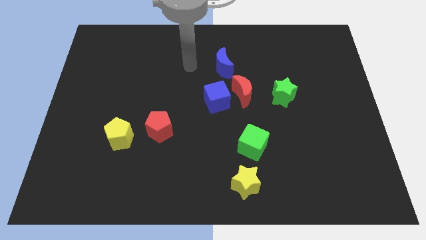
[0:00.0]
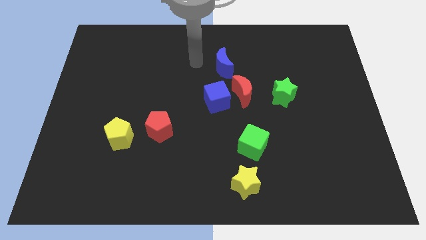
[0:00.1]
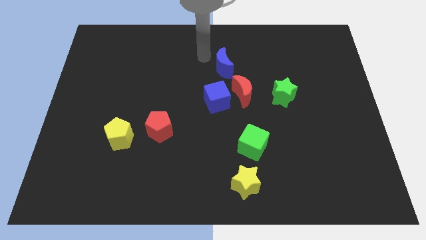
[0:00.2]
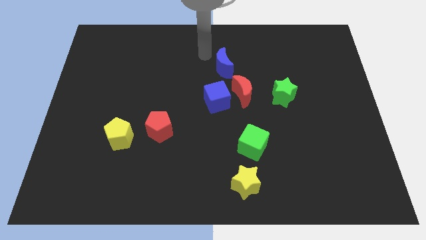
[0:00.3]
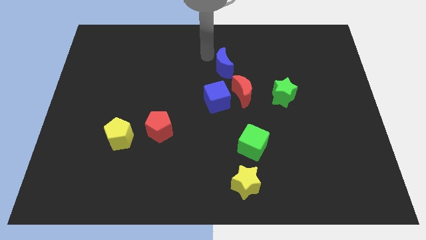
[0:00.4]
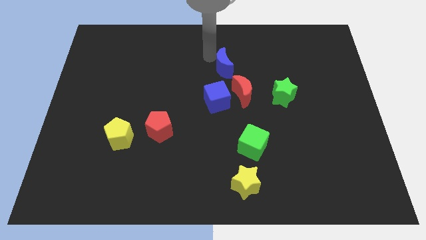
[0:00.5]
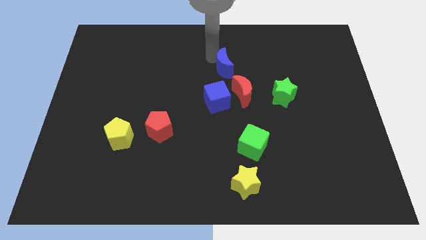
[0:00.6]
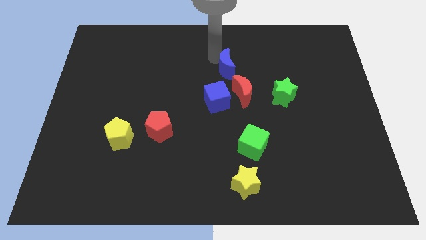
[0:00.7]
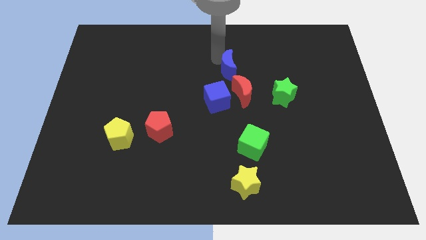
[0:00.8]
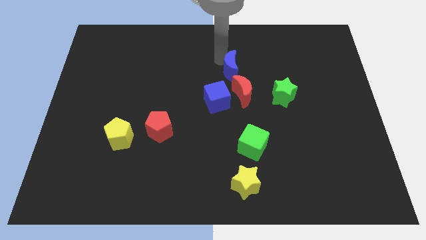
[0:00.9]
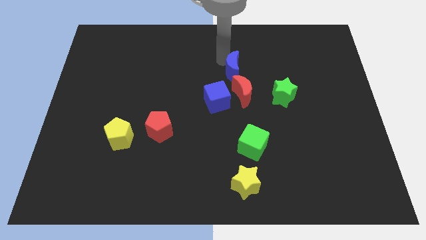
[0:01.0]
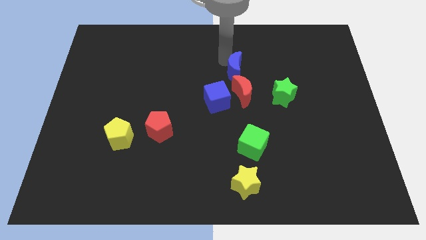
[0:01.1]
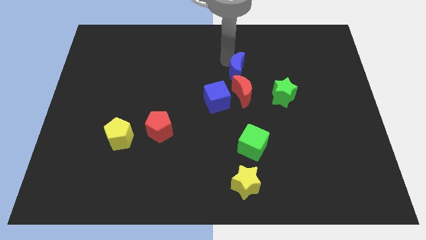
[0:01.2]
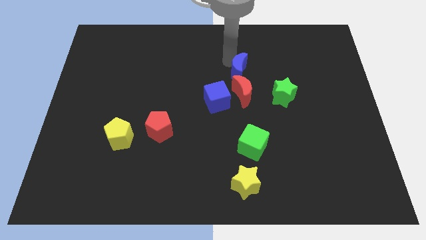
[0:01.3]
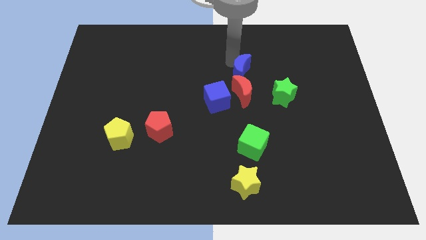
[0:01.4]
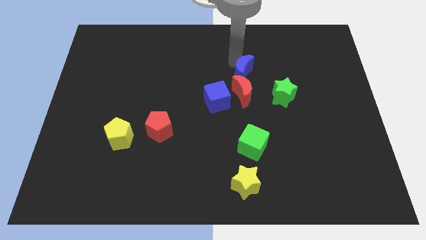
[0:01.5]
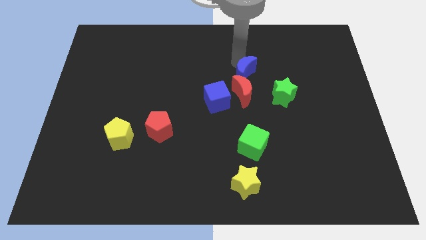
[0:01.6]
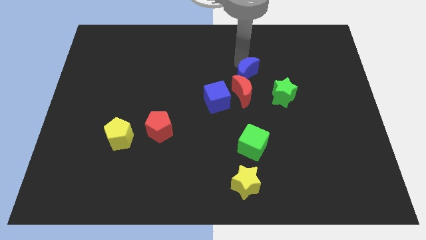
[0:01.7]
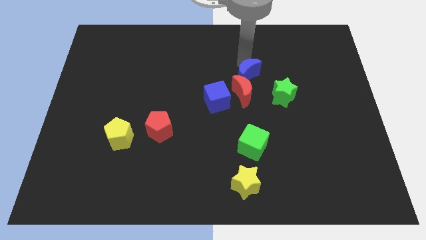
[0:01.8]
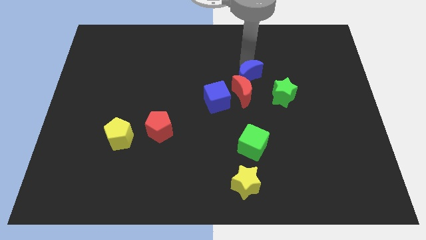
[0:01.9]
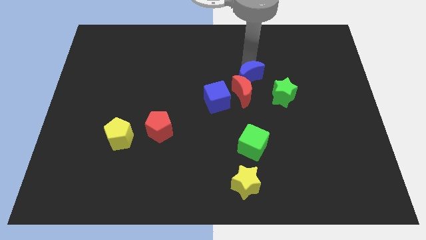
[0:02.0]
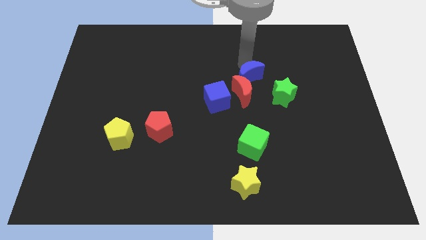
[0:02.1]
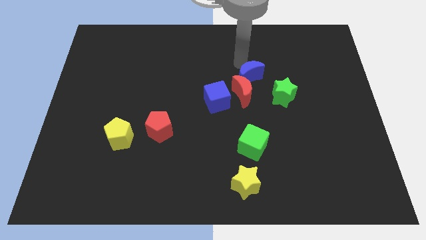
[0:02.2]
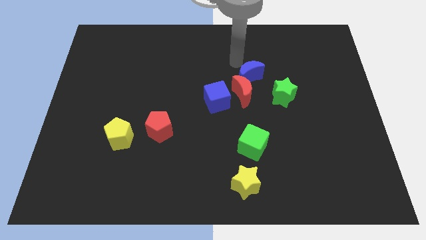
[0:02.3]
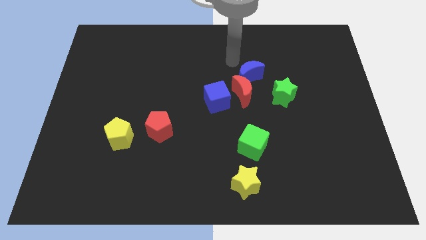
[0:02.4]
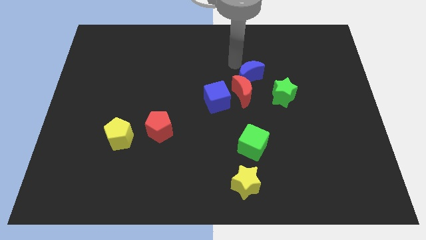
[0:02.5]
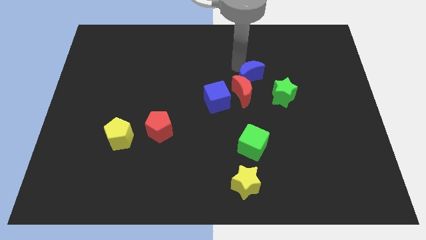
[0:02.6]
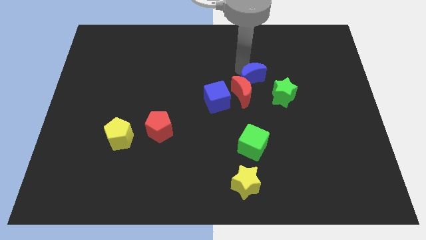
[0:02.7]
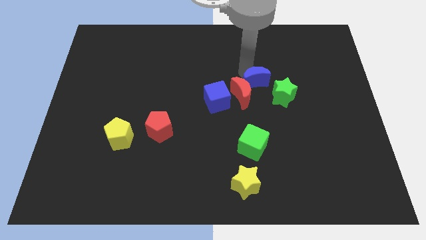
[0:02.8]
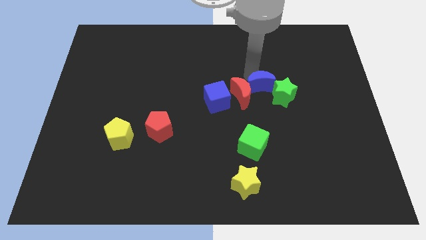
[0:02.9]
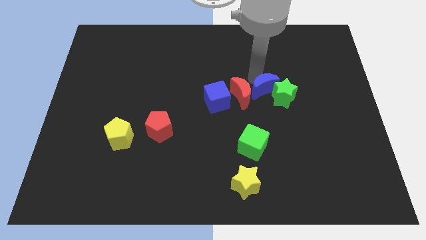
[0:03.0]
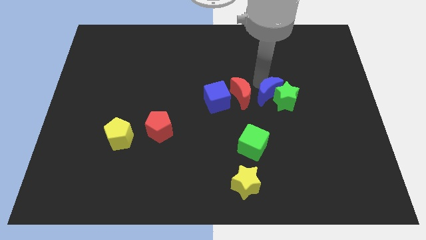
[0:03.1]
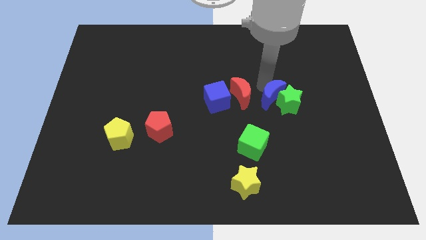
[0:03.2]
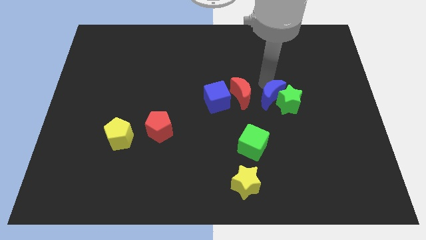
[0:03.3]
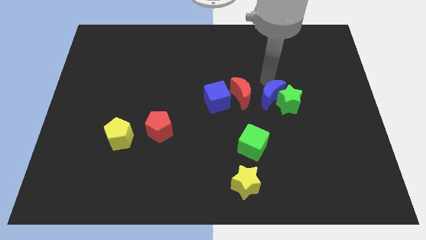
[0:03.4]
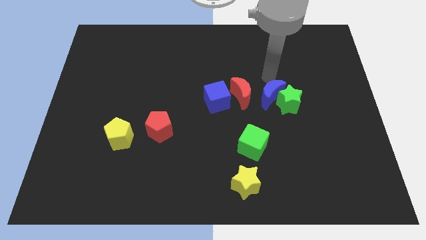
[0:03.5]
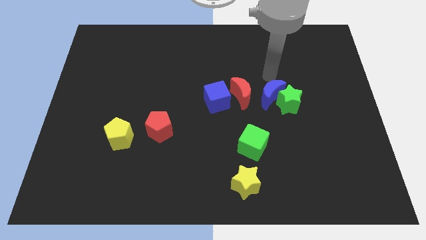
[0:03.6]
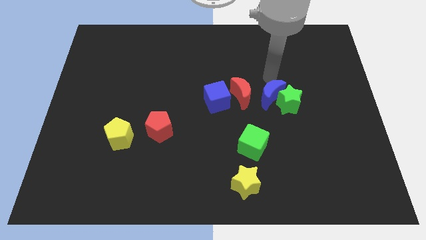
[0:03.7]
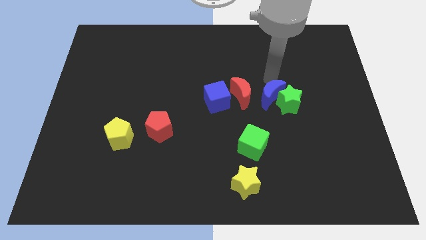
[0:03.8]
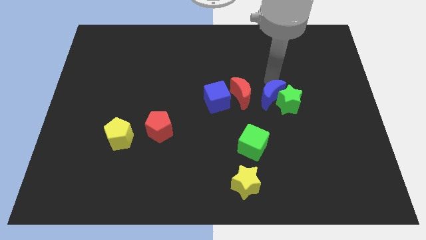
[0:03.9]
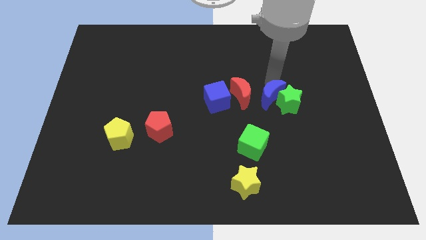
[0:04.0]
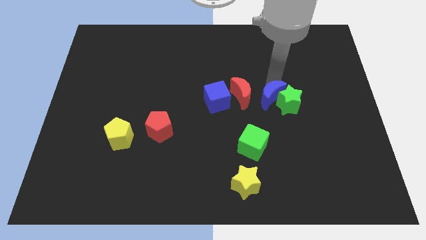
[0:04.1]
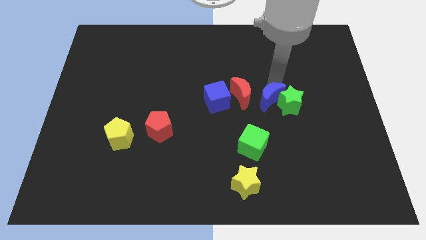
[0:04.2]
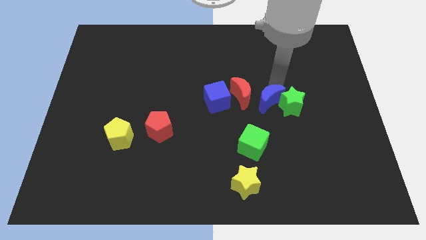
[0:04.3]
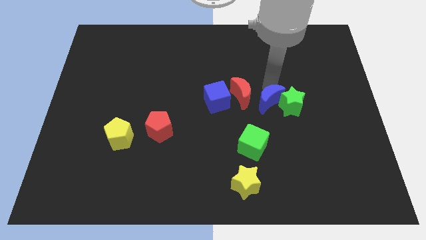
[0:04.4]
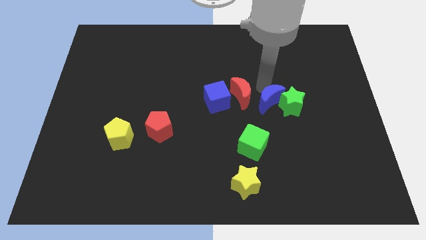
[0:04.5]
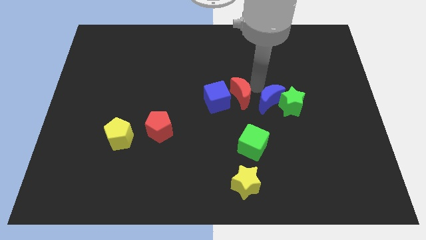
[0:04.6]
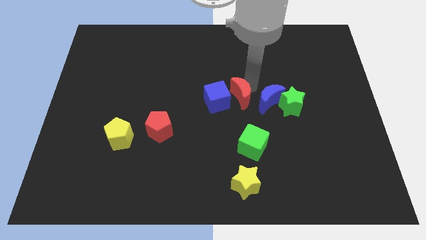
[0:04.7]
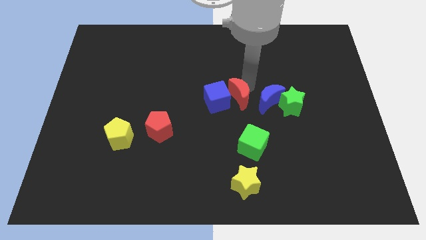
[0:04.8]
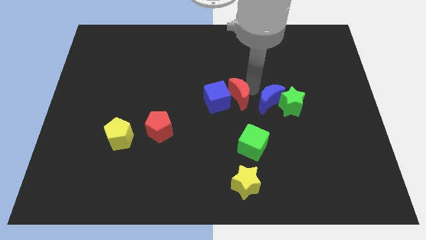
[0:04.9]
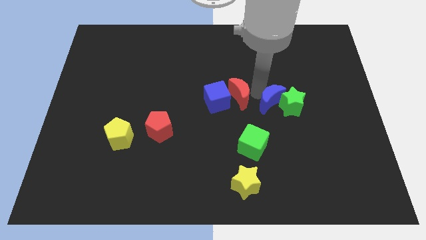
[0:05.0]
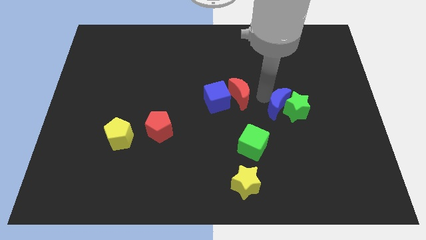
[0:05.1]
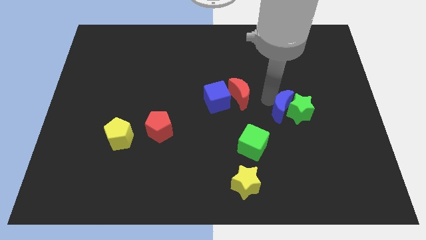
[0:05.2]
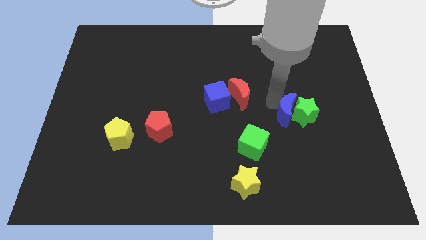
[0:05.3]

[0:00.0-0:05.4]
push the blue moon down and to the right diagonally

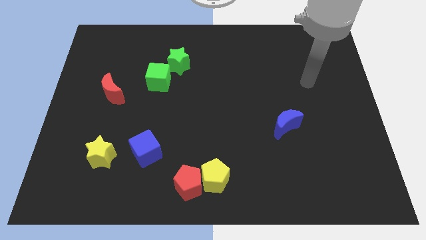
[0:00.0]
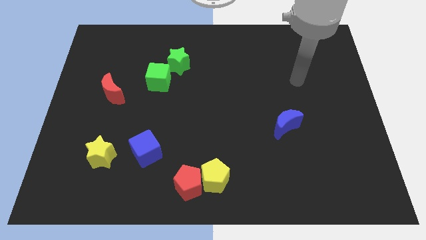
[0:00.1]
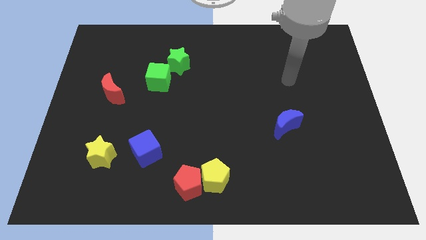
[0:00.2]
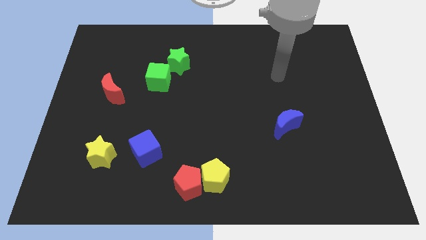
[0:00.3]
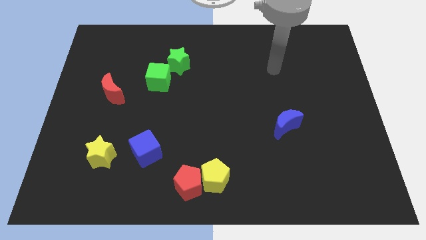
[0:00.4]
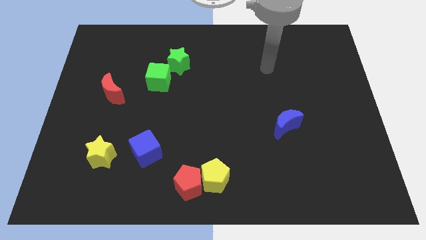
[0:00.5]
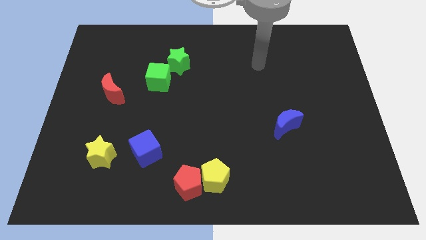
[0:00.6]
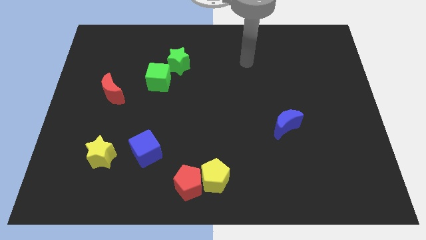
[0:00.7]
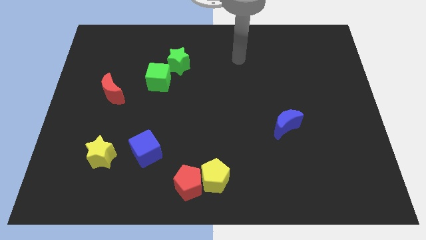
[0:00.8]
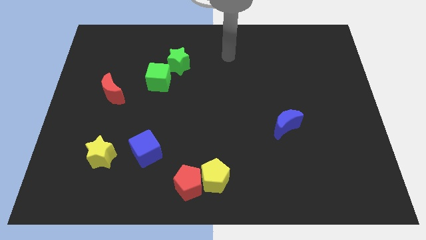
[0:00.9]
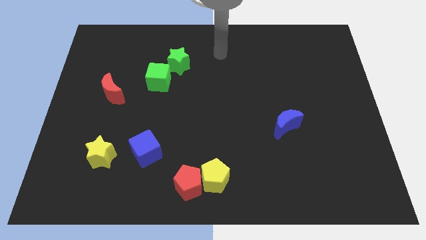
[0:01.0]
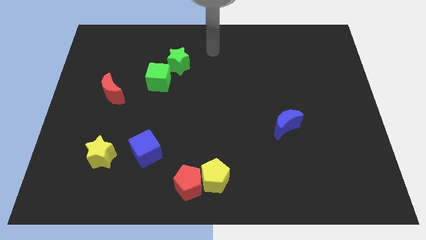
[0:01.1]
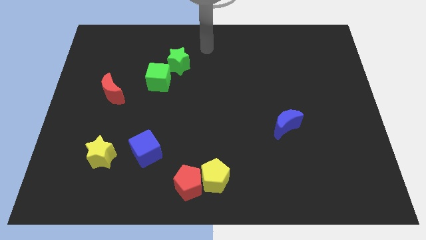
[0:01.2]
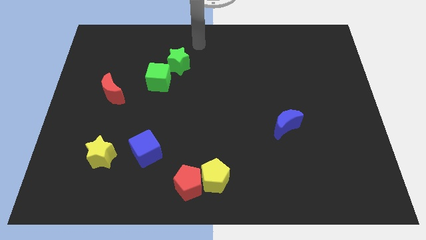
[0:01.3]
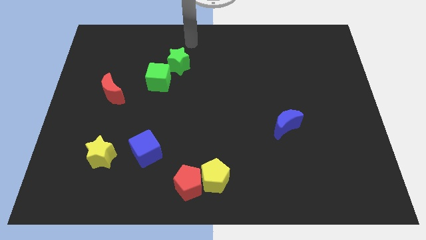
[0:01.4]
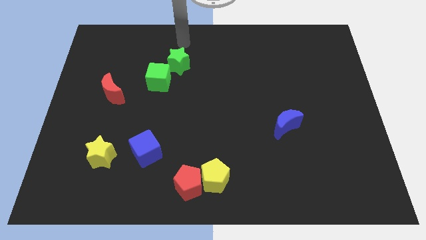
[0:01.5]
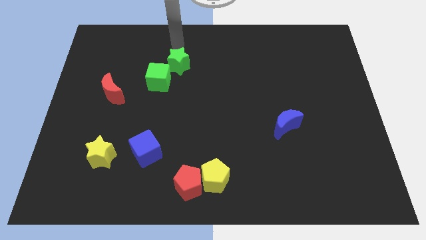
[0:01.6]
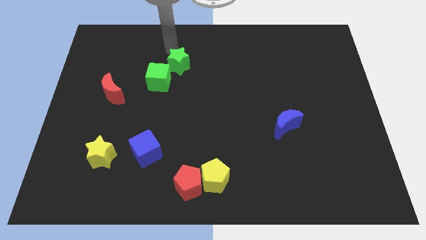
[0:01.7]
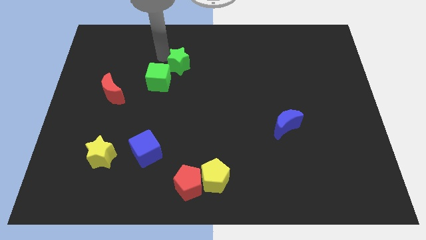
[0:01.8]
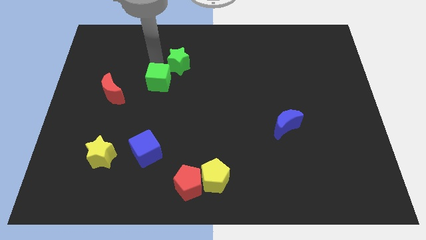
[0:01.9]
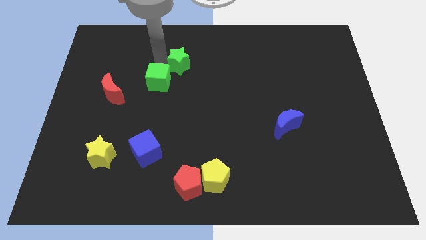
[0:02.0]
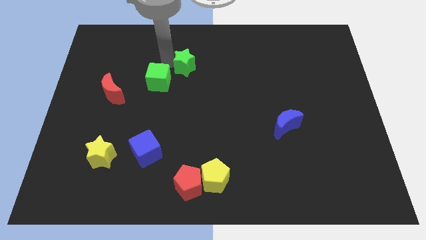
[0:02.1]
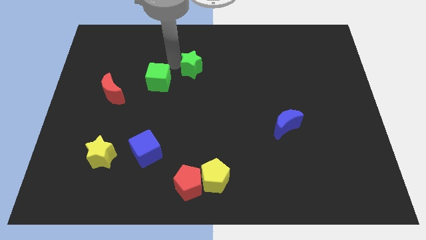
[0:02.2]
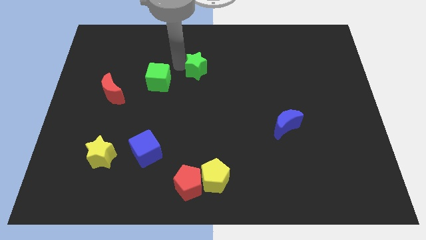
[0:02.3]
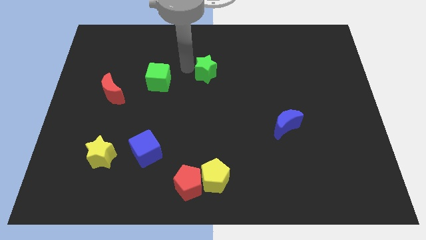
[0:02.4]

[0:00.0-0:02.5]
slightly move the green star right

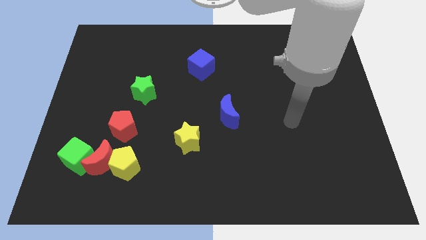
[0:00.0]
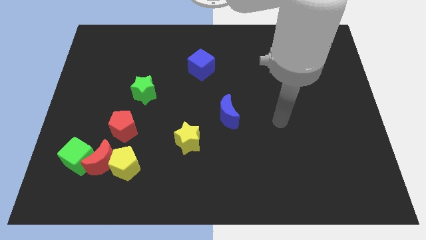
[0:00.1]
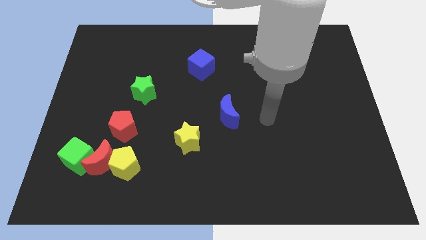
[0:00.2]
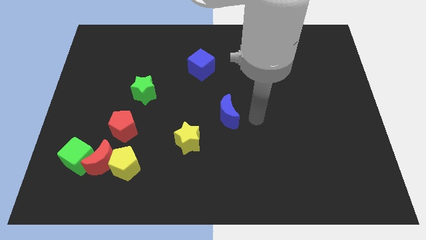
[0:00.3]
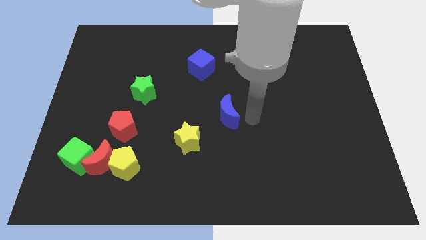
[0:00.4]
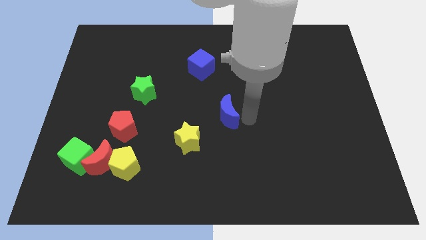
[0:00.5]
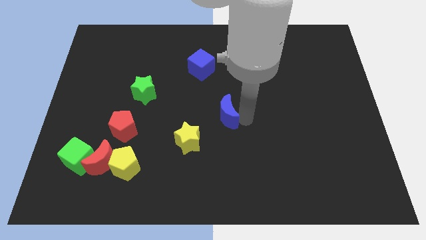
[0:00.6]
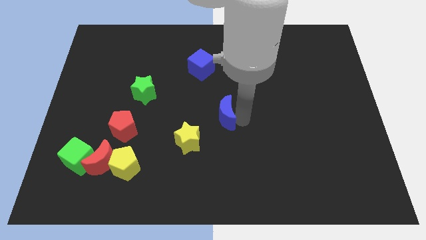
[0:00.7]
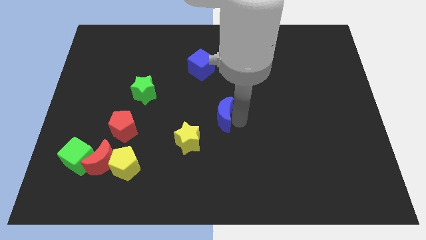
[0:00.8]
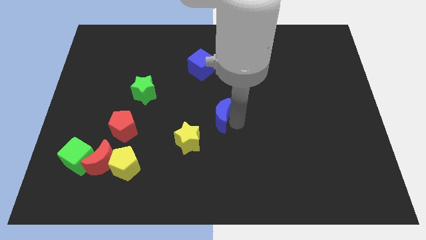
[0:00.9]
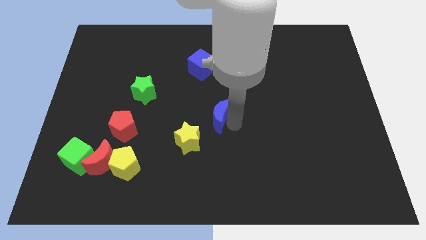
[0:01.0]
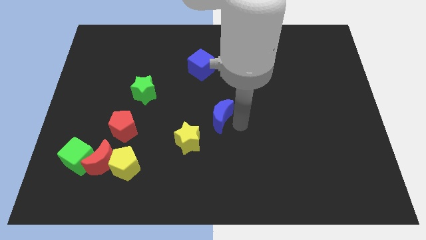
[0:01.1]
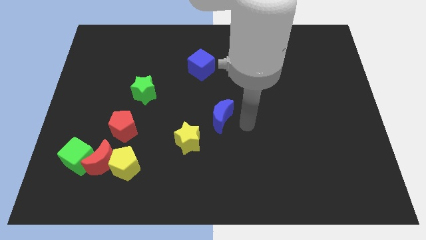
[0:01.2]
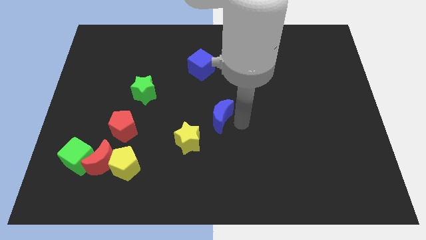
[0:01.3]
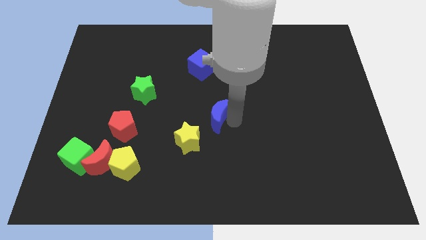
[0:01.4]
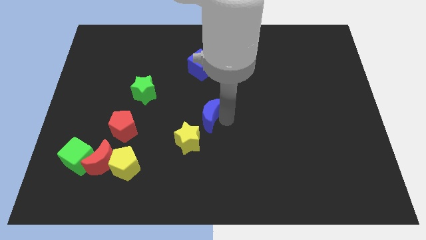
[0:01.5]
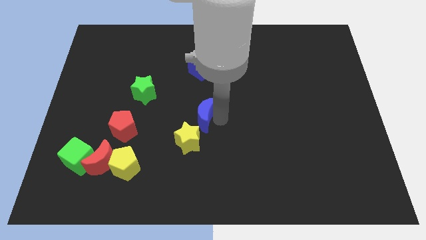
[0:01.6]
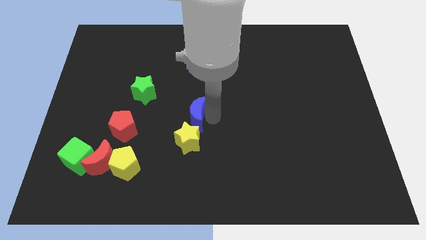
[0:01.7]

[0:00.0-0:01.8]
slightly push the blue moon left
